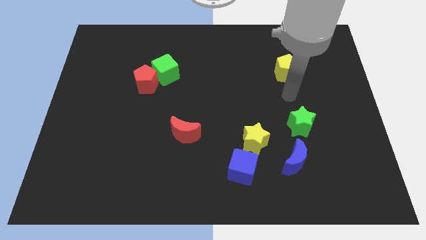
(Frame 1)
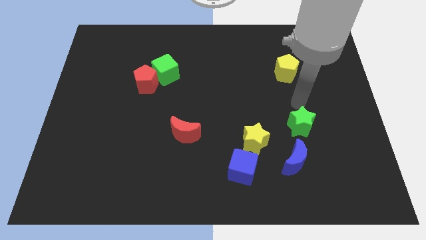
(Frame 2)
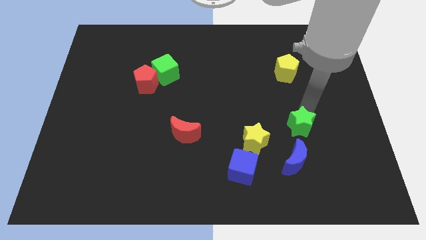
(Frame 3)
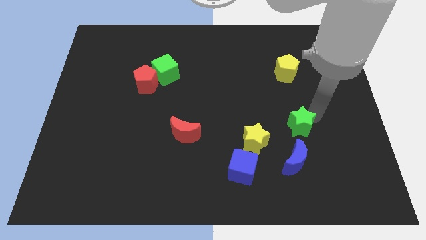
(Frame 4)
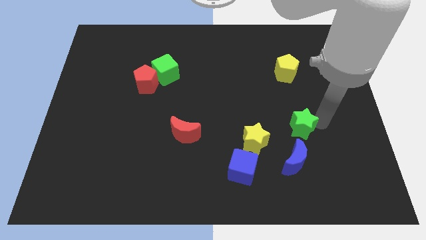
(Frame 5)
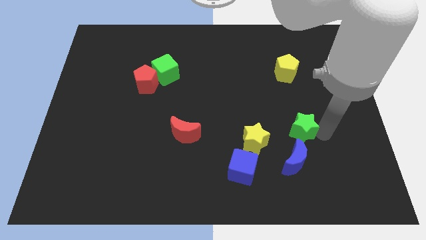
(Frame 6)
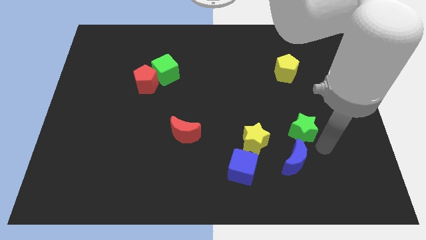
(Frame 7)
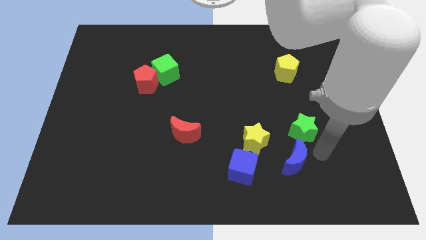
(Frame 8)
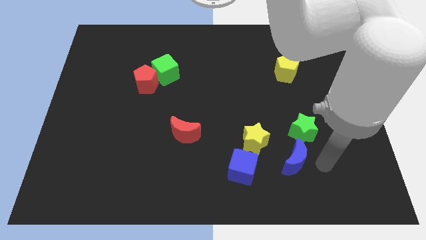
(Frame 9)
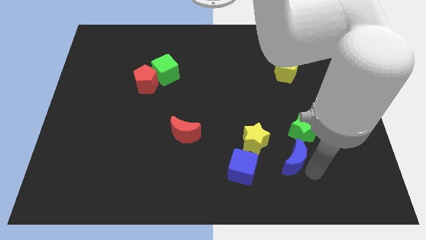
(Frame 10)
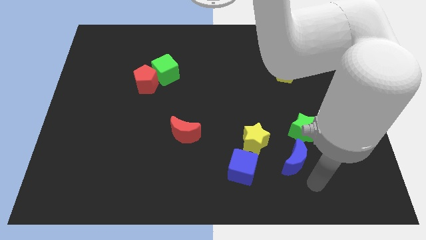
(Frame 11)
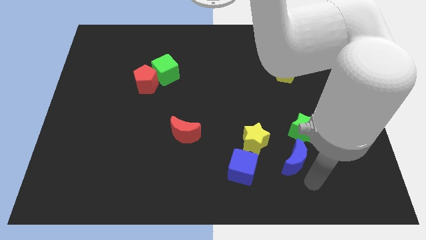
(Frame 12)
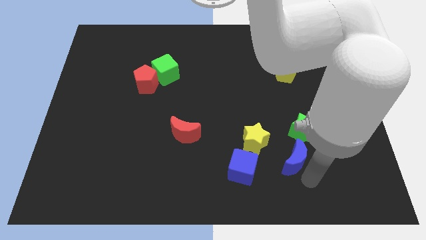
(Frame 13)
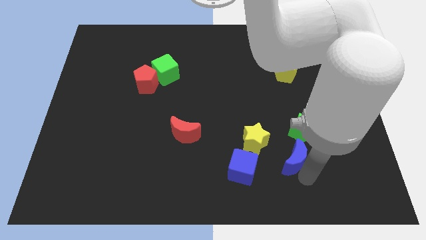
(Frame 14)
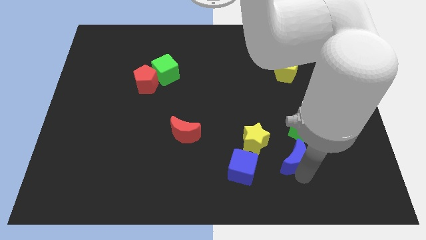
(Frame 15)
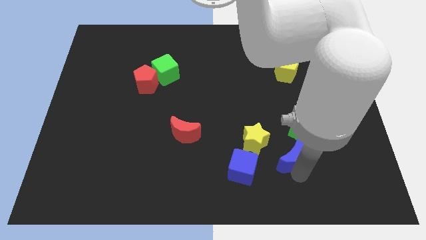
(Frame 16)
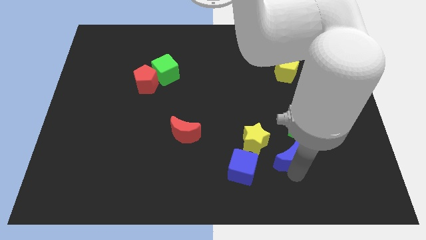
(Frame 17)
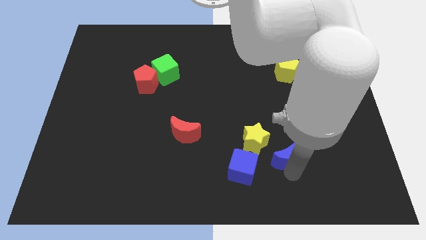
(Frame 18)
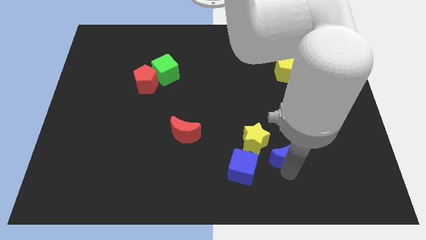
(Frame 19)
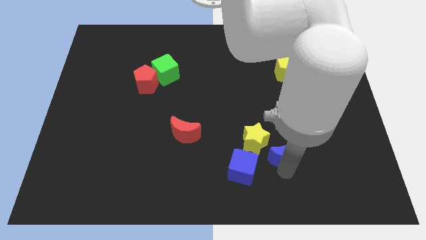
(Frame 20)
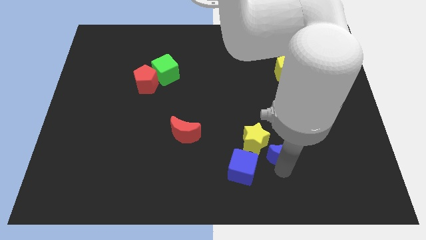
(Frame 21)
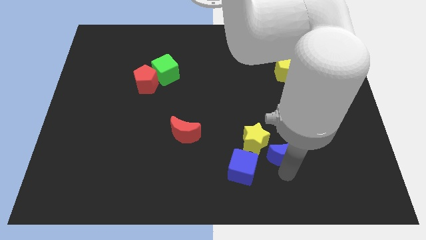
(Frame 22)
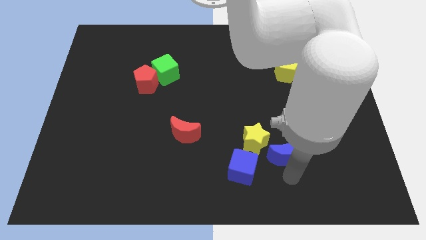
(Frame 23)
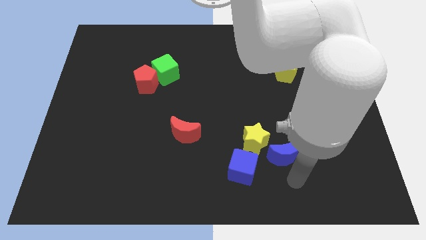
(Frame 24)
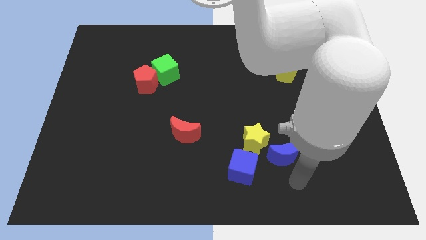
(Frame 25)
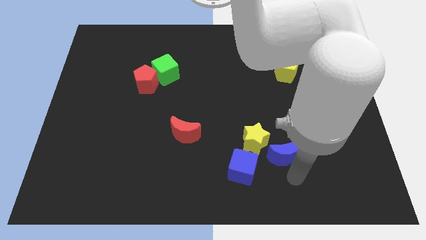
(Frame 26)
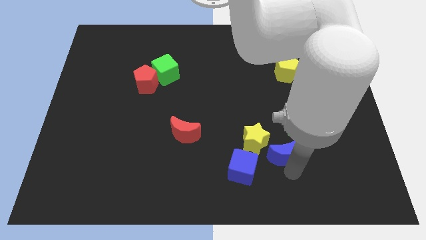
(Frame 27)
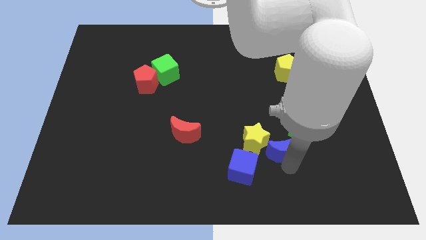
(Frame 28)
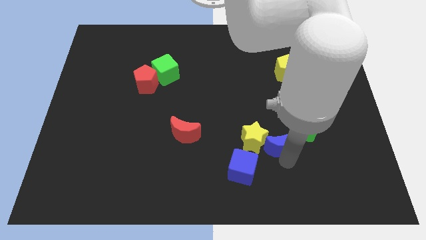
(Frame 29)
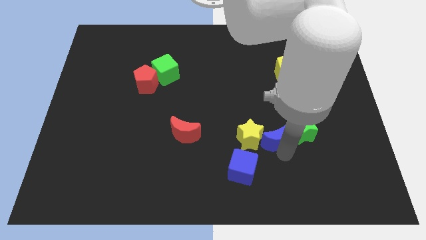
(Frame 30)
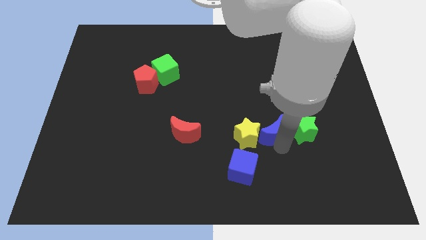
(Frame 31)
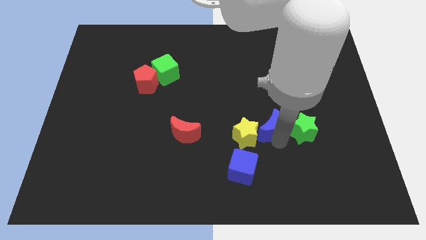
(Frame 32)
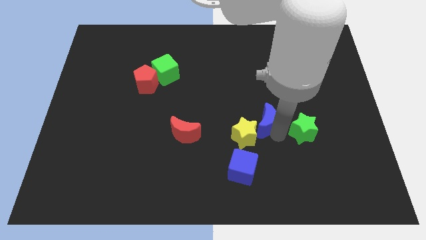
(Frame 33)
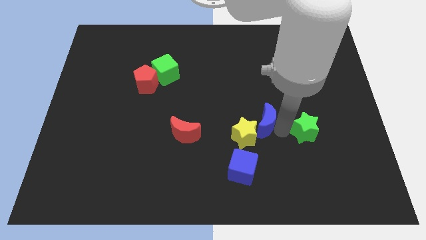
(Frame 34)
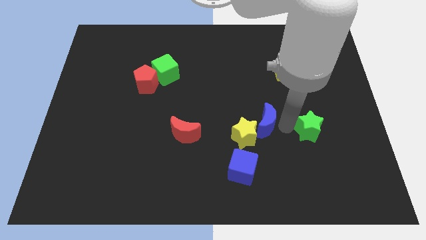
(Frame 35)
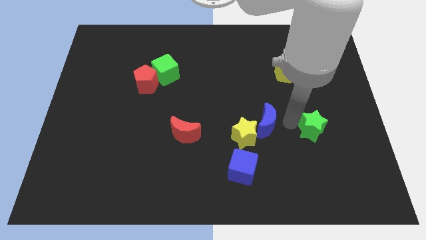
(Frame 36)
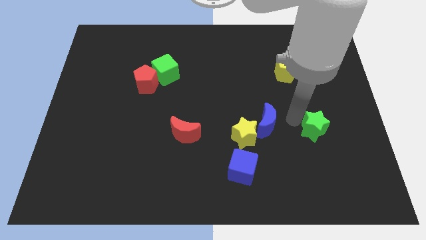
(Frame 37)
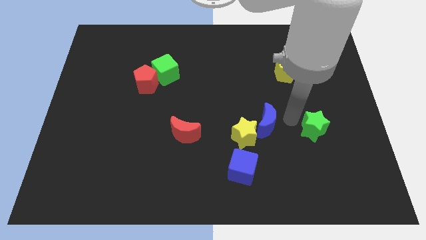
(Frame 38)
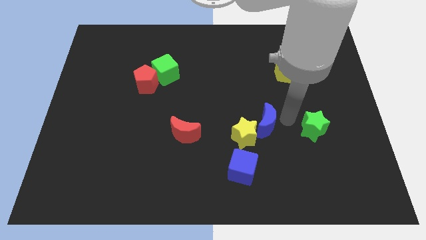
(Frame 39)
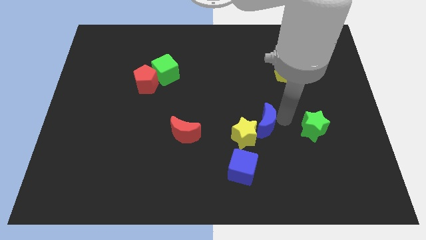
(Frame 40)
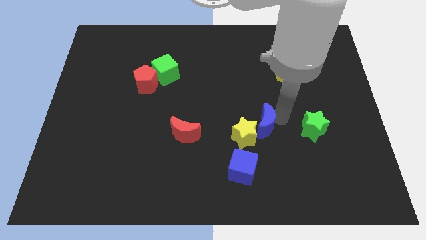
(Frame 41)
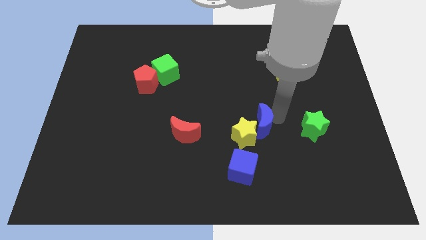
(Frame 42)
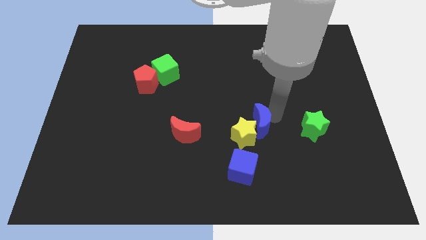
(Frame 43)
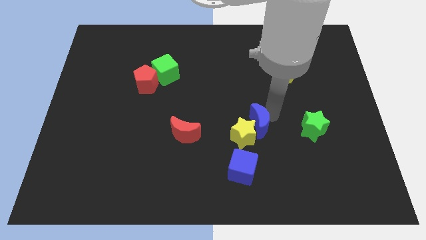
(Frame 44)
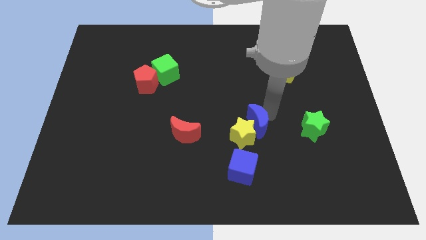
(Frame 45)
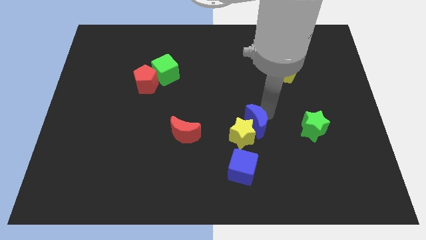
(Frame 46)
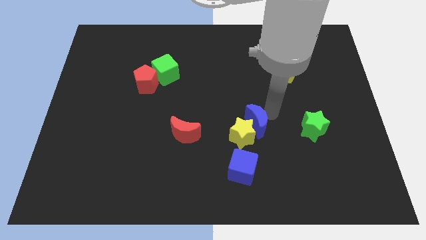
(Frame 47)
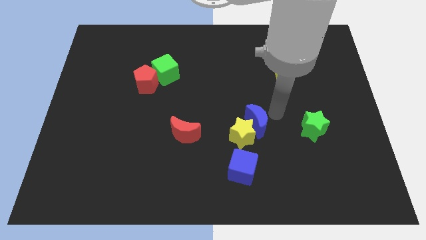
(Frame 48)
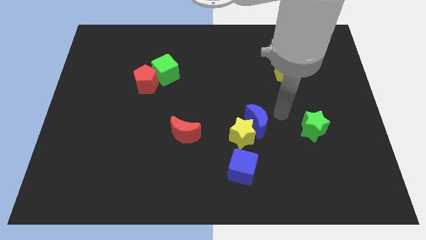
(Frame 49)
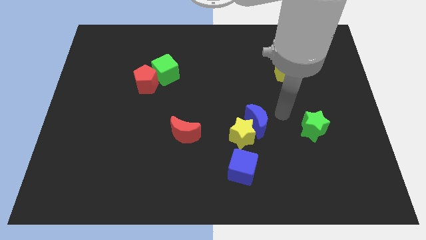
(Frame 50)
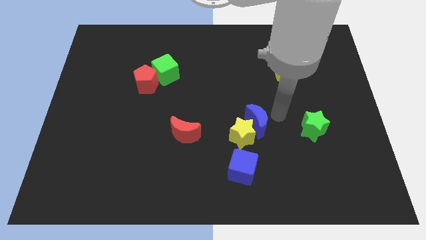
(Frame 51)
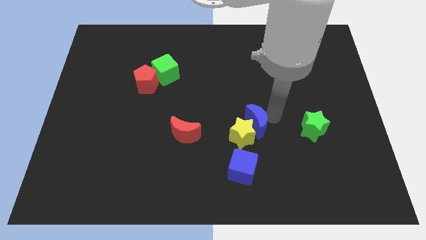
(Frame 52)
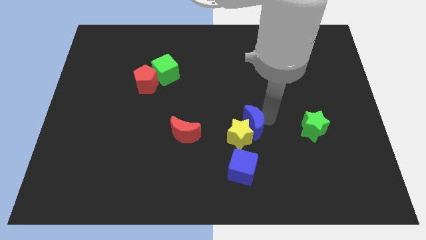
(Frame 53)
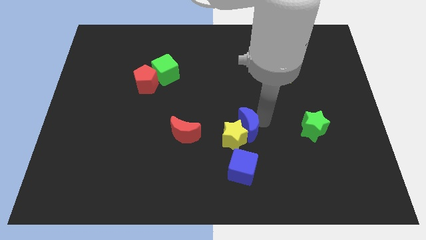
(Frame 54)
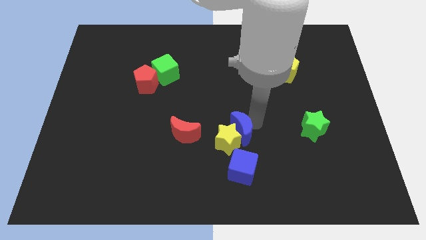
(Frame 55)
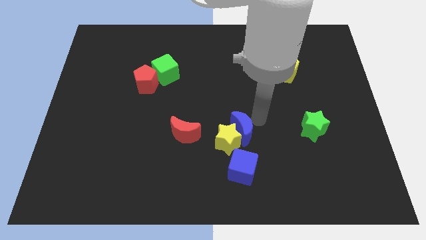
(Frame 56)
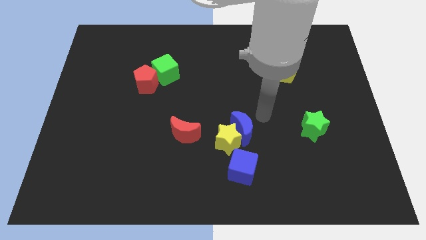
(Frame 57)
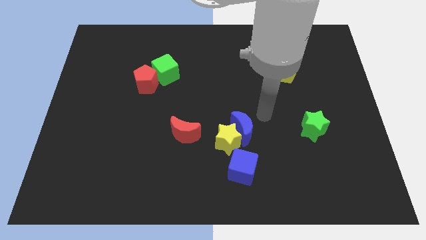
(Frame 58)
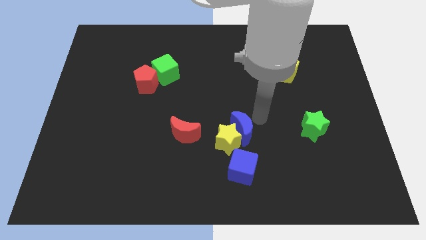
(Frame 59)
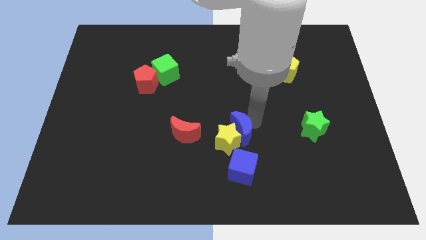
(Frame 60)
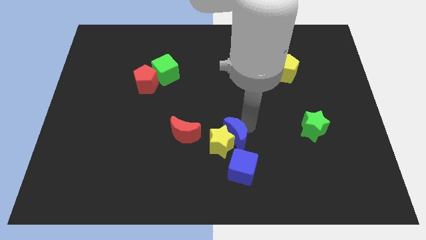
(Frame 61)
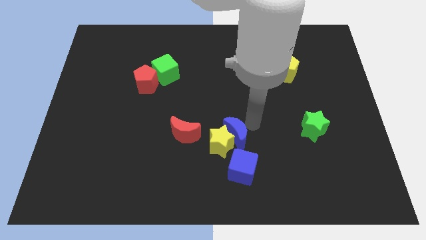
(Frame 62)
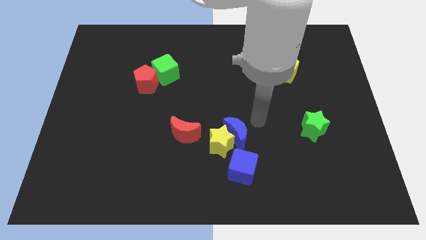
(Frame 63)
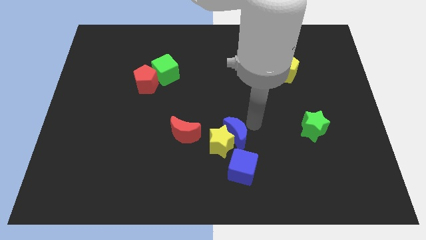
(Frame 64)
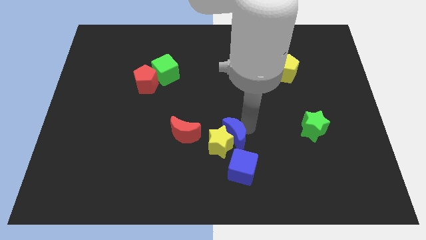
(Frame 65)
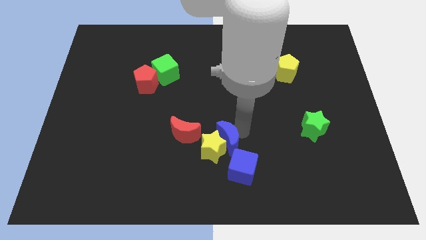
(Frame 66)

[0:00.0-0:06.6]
push the blue moon diagonally up and to the left of the blue cube

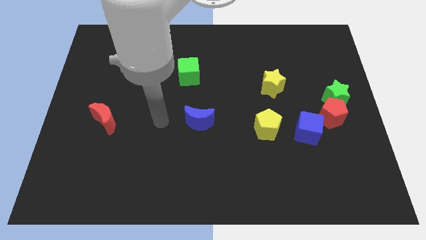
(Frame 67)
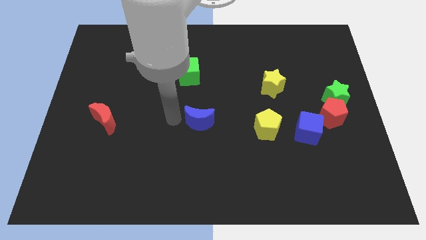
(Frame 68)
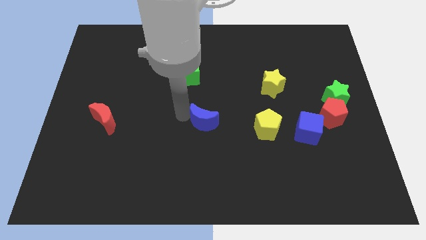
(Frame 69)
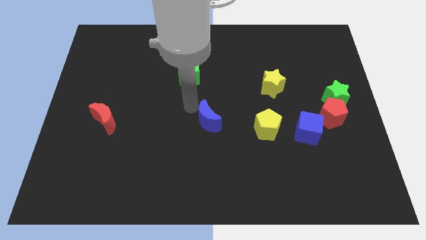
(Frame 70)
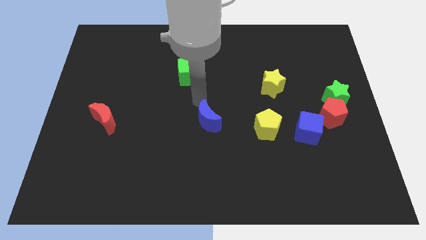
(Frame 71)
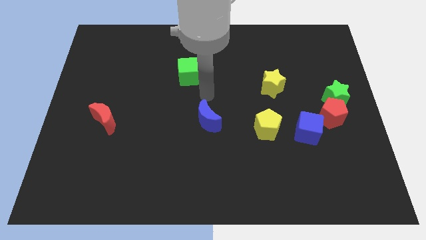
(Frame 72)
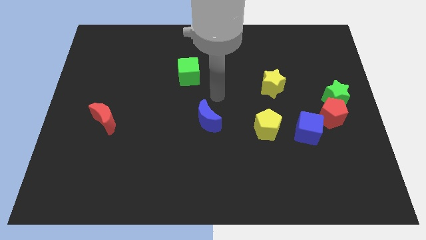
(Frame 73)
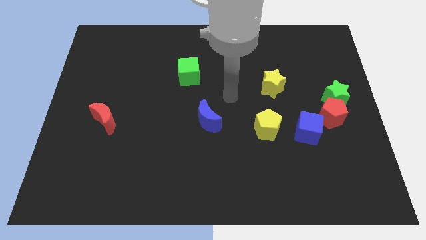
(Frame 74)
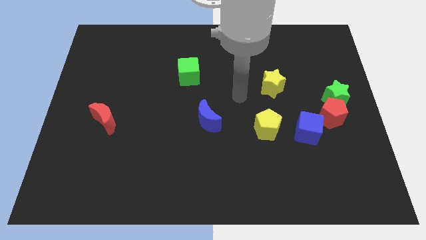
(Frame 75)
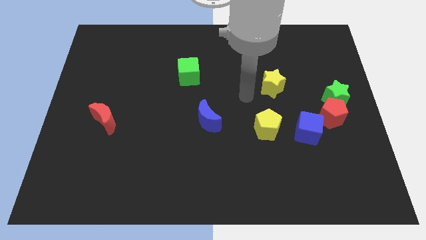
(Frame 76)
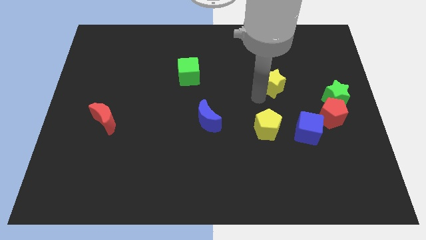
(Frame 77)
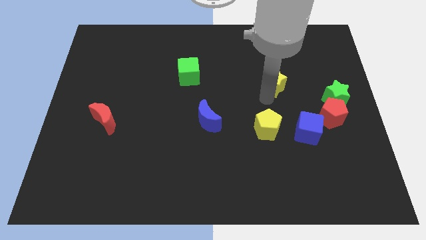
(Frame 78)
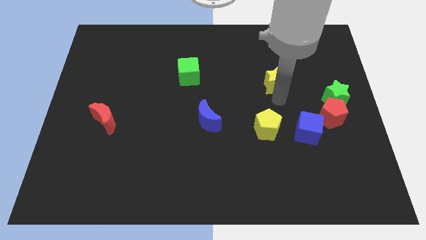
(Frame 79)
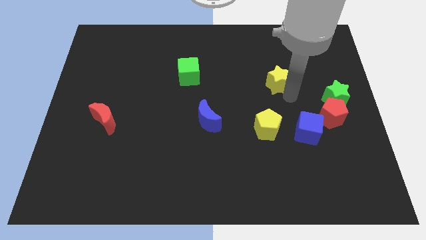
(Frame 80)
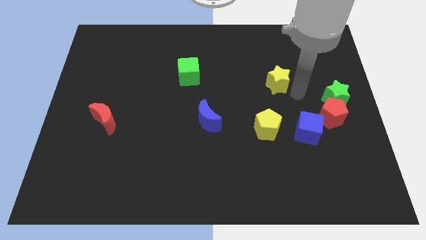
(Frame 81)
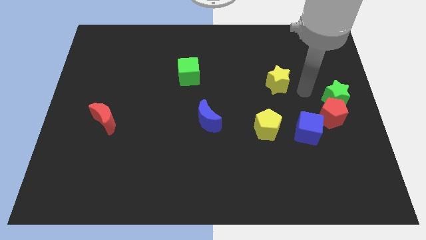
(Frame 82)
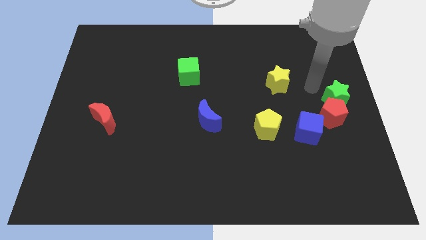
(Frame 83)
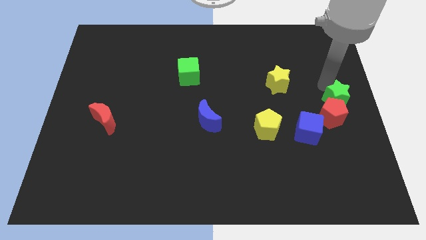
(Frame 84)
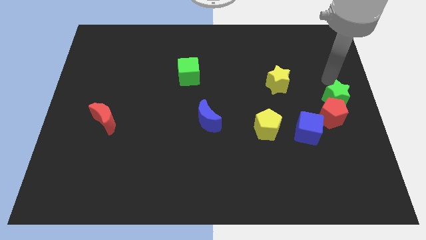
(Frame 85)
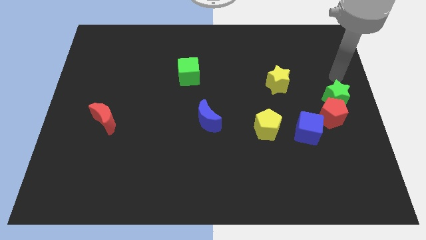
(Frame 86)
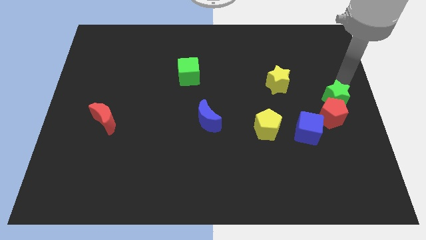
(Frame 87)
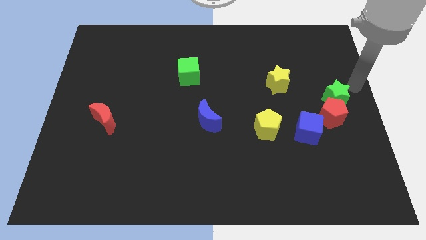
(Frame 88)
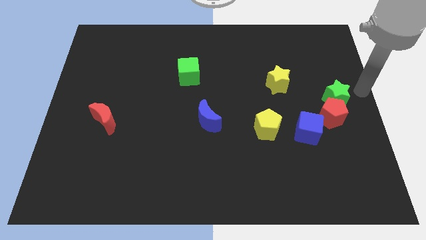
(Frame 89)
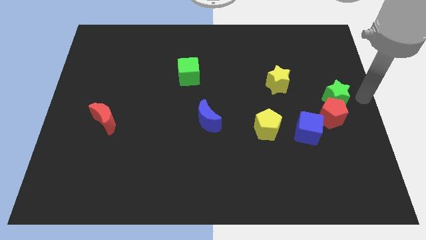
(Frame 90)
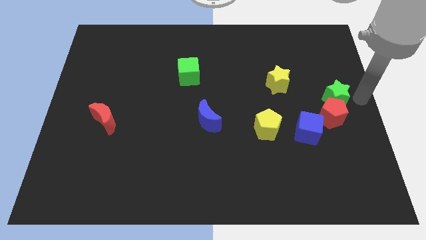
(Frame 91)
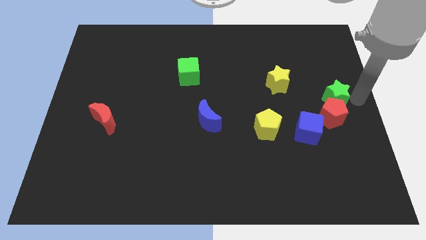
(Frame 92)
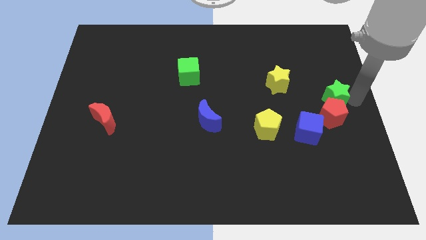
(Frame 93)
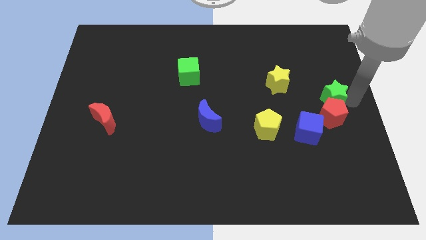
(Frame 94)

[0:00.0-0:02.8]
move the green star to the top left of the red pentagon
